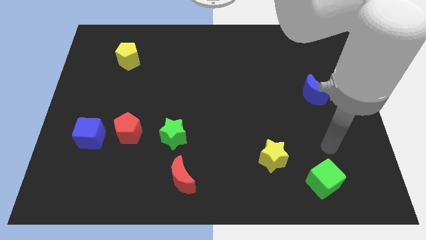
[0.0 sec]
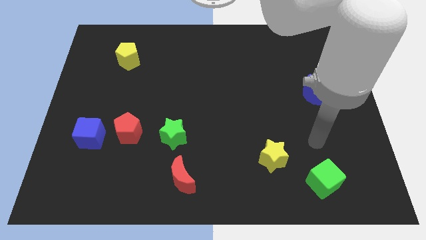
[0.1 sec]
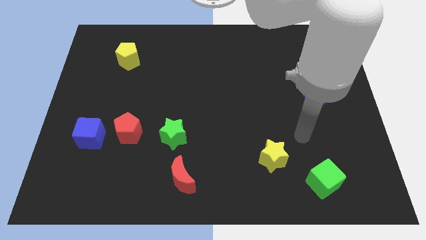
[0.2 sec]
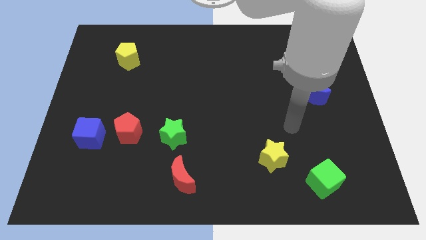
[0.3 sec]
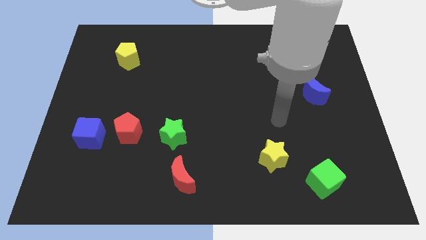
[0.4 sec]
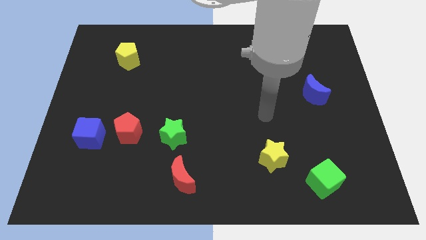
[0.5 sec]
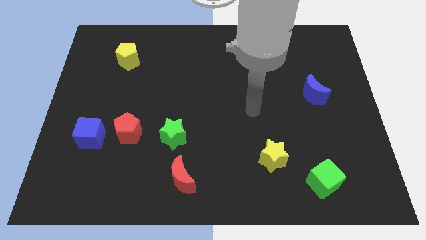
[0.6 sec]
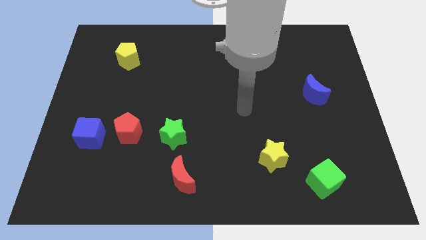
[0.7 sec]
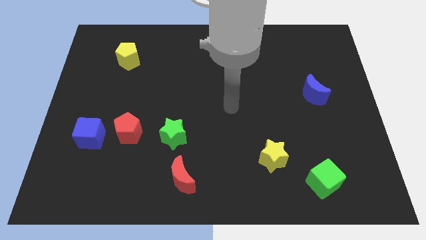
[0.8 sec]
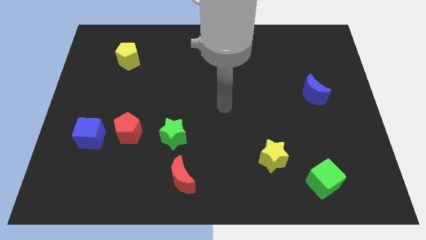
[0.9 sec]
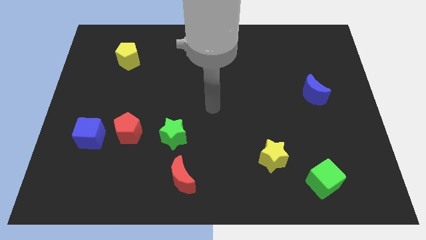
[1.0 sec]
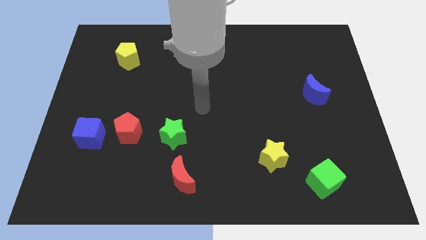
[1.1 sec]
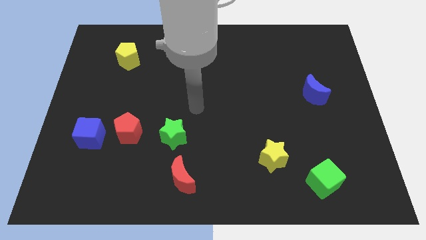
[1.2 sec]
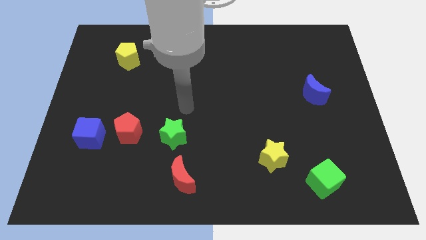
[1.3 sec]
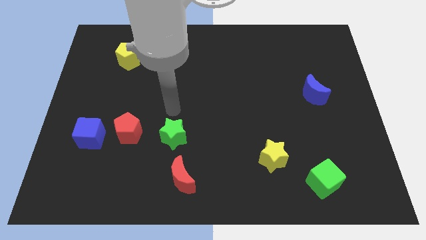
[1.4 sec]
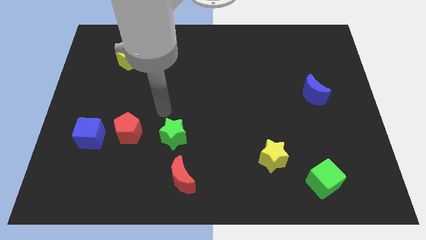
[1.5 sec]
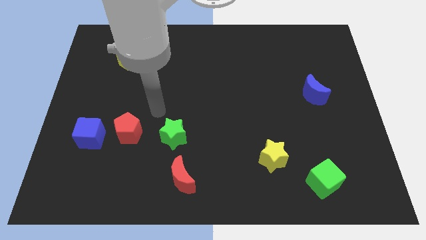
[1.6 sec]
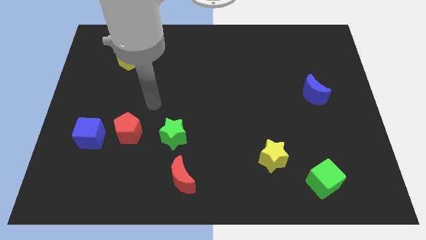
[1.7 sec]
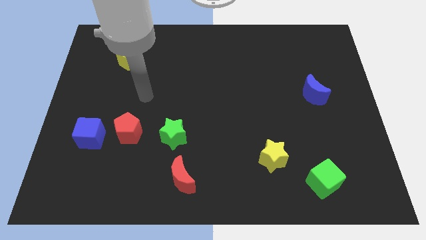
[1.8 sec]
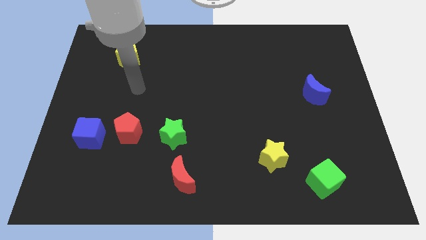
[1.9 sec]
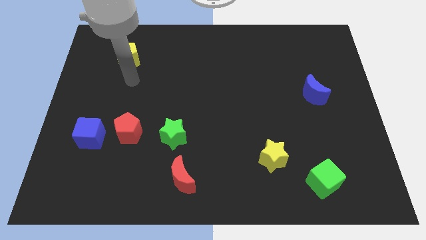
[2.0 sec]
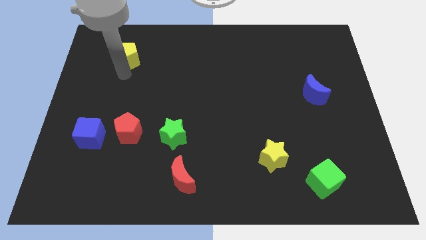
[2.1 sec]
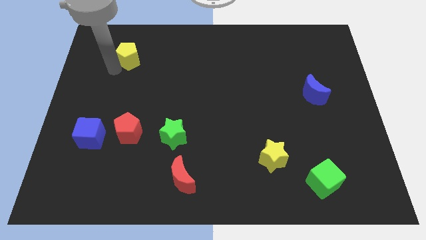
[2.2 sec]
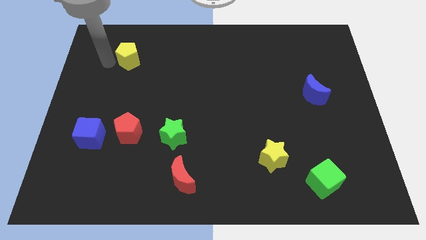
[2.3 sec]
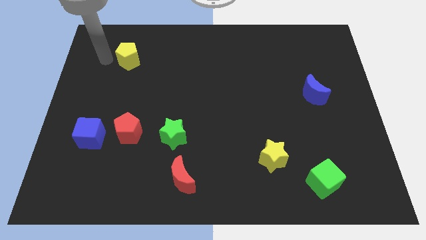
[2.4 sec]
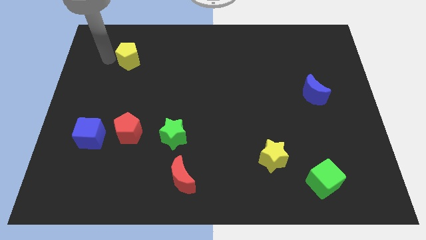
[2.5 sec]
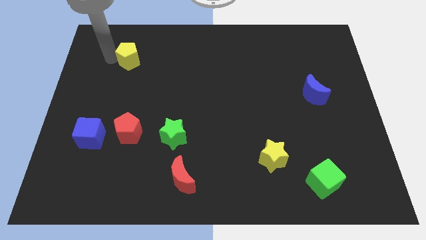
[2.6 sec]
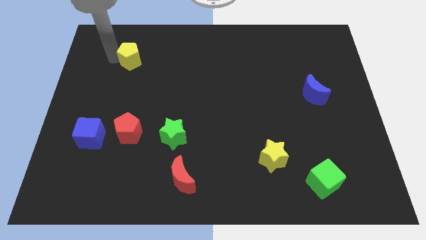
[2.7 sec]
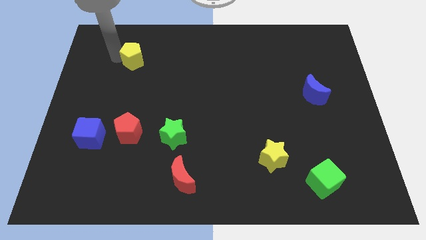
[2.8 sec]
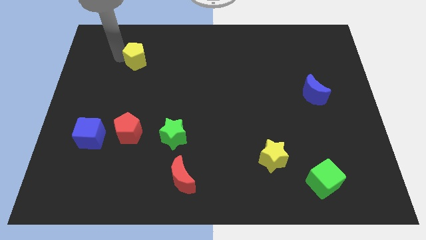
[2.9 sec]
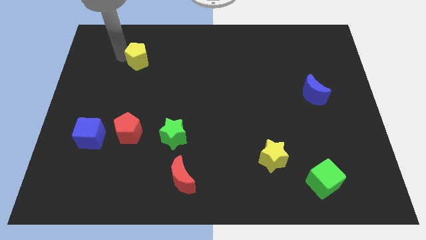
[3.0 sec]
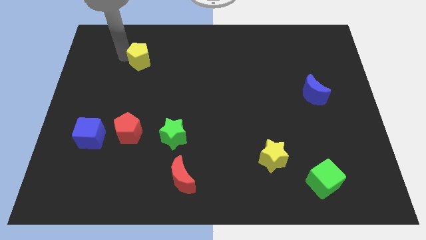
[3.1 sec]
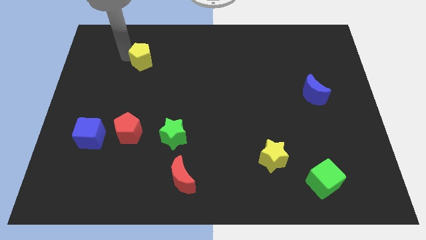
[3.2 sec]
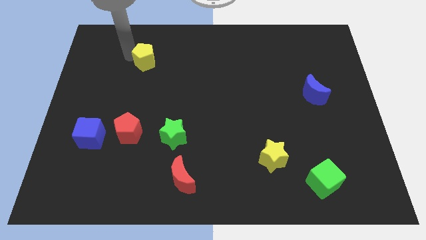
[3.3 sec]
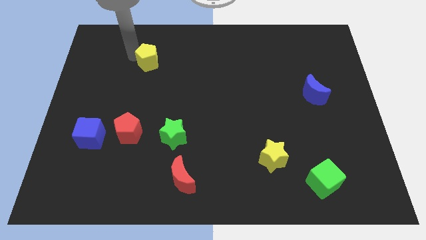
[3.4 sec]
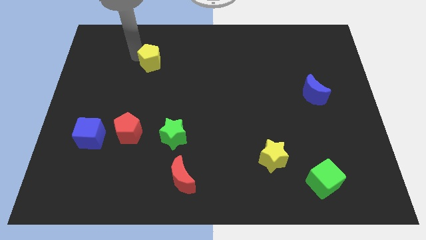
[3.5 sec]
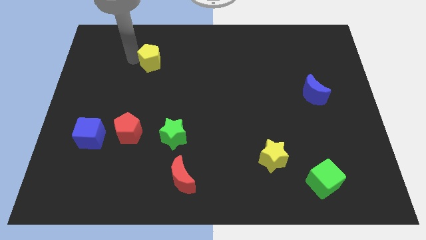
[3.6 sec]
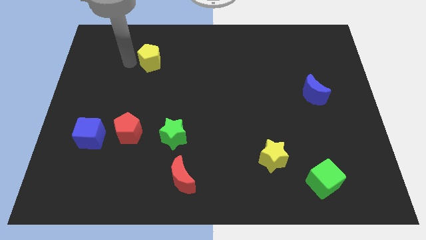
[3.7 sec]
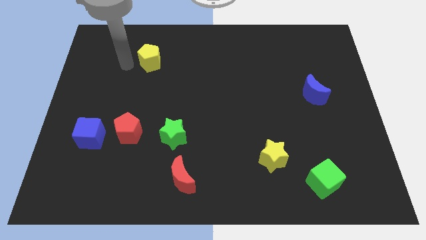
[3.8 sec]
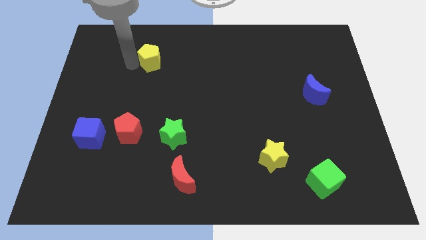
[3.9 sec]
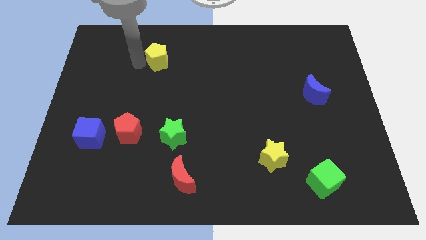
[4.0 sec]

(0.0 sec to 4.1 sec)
slightly push the yellow pentagon to the right

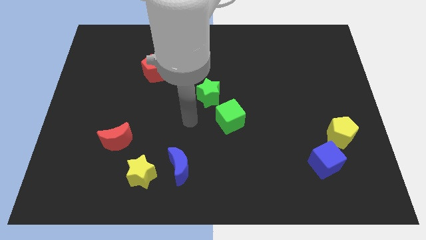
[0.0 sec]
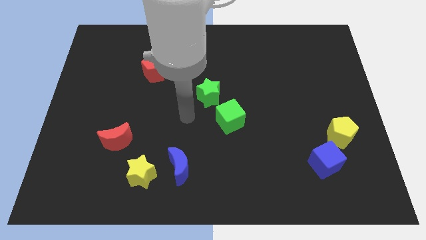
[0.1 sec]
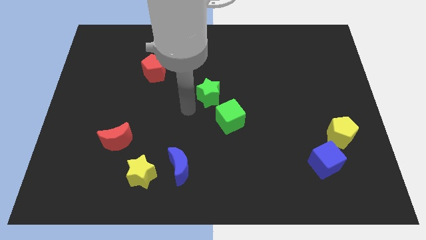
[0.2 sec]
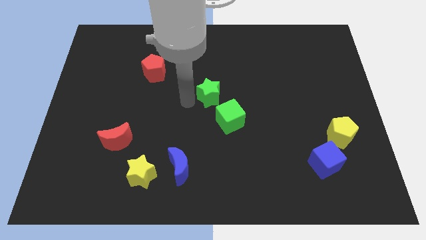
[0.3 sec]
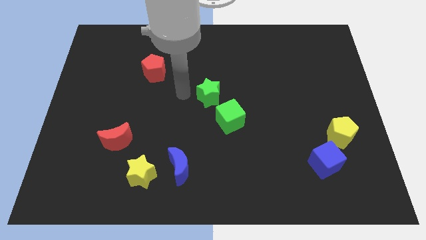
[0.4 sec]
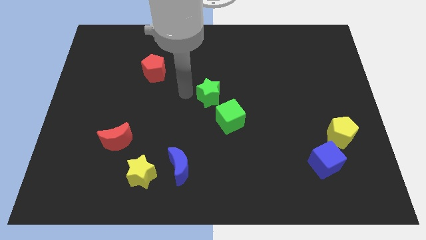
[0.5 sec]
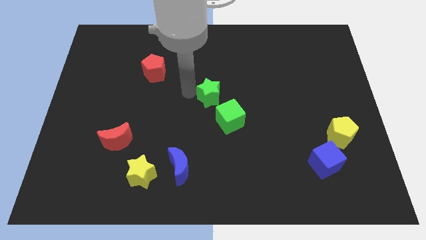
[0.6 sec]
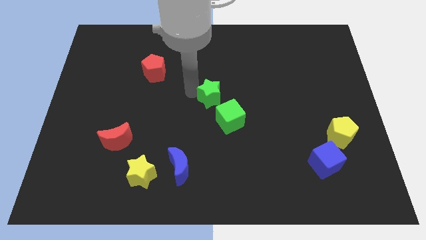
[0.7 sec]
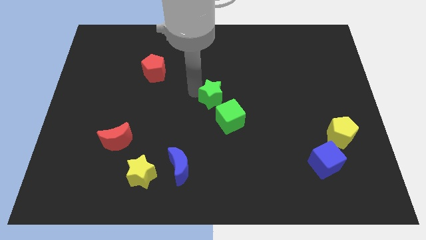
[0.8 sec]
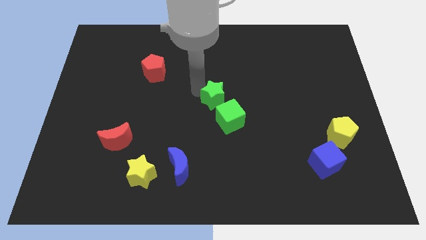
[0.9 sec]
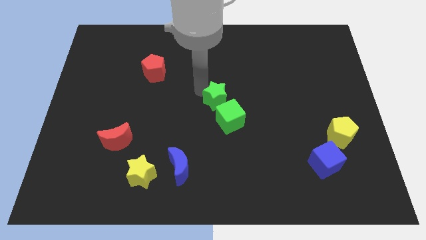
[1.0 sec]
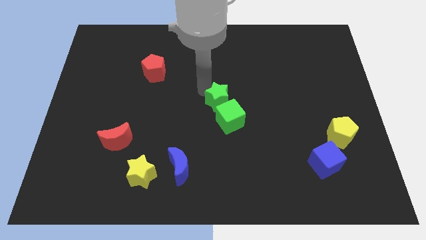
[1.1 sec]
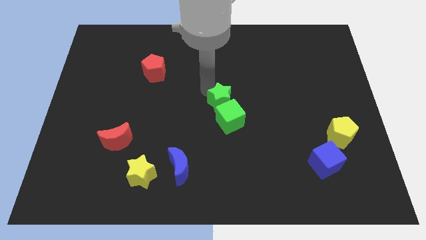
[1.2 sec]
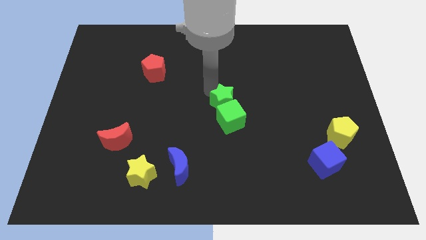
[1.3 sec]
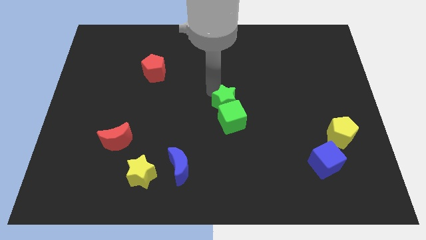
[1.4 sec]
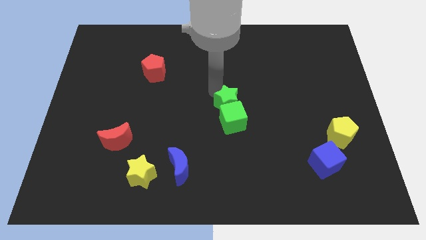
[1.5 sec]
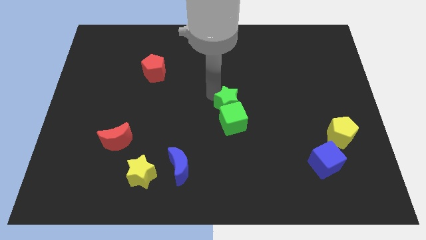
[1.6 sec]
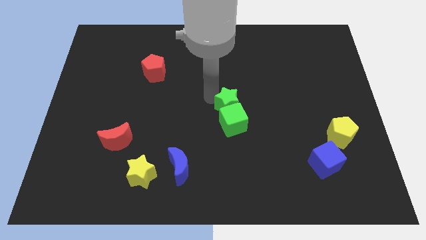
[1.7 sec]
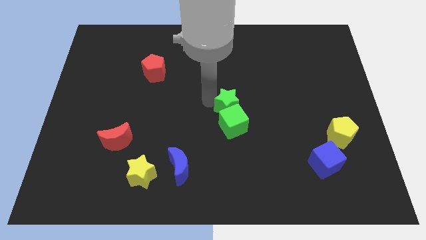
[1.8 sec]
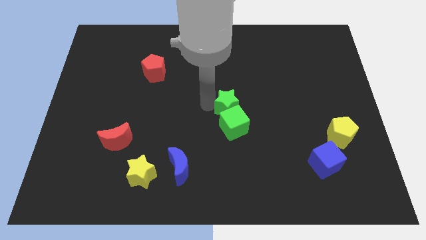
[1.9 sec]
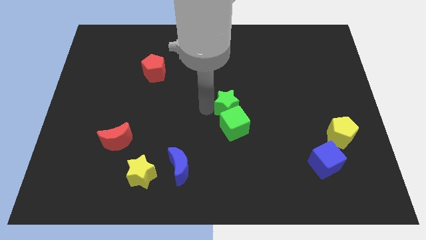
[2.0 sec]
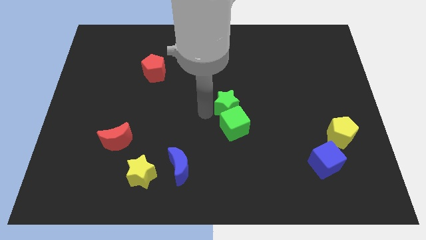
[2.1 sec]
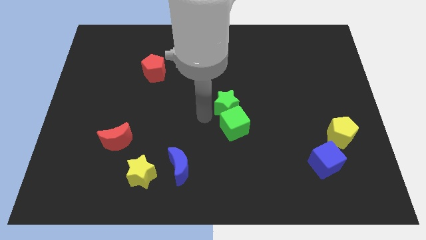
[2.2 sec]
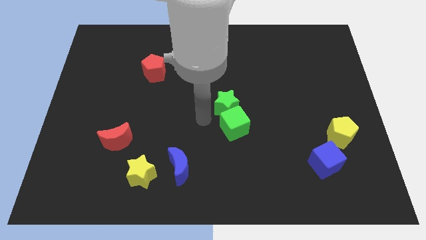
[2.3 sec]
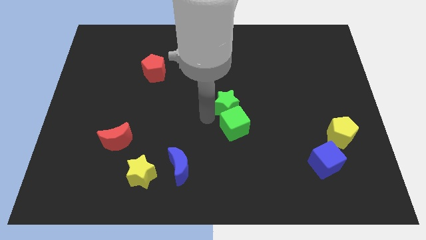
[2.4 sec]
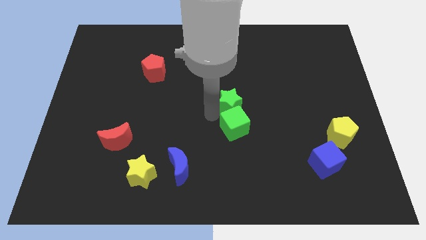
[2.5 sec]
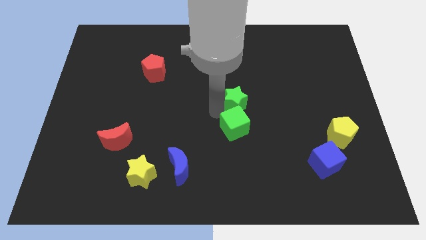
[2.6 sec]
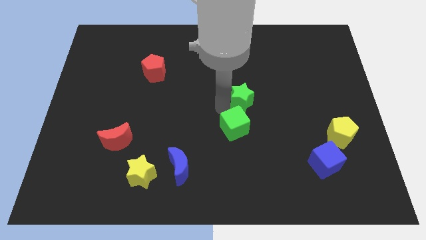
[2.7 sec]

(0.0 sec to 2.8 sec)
slide the green star a little bit right

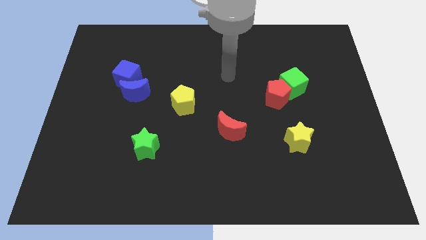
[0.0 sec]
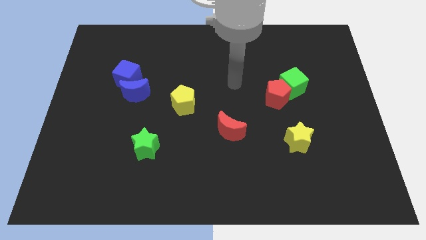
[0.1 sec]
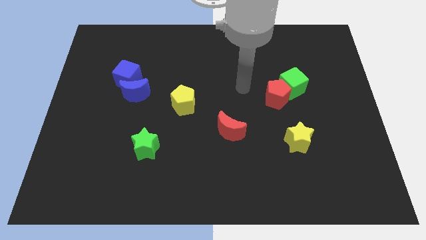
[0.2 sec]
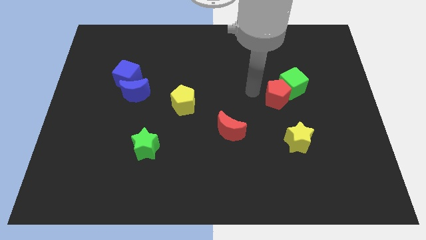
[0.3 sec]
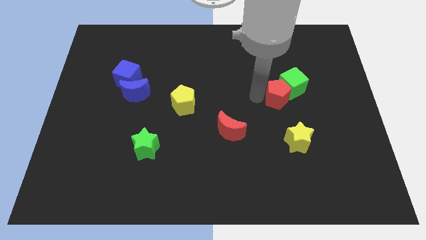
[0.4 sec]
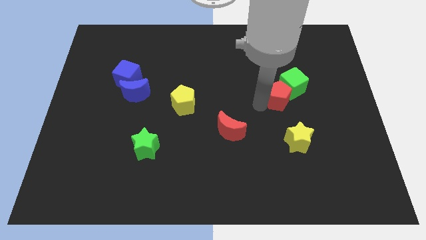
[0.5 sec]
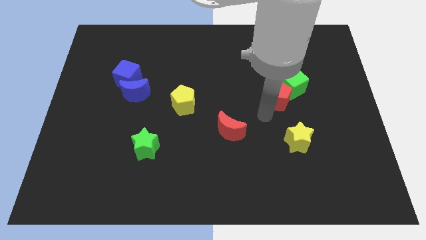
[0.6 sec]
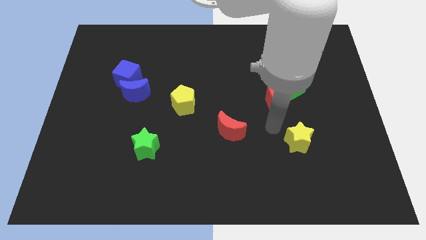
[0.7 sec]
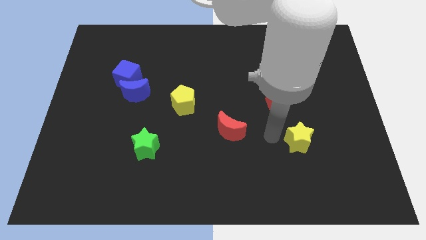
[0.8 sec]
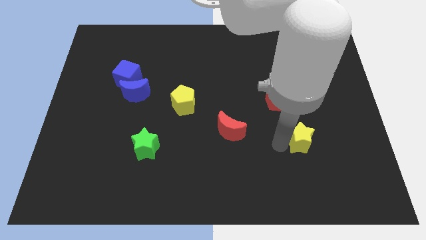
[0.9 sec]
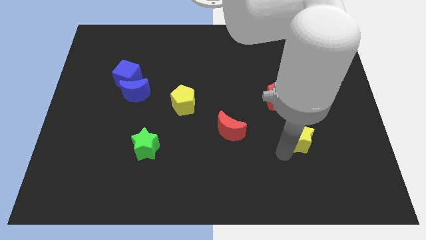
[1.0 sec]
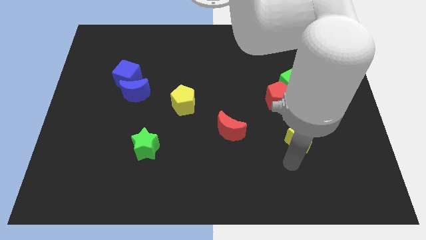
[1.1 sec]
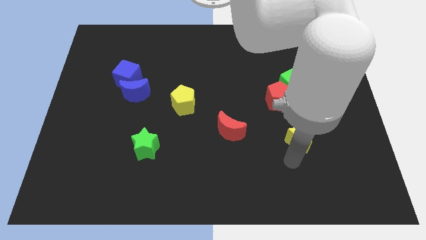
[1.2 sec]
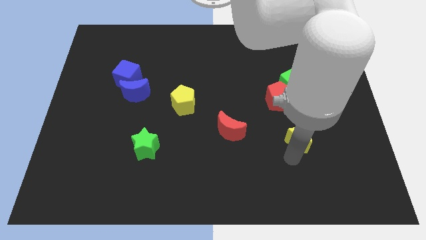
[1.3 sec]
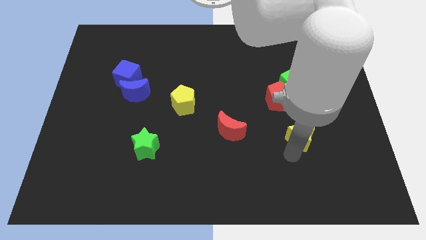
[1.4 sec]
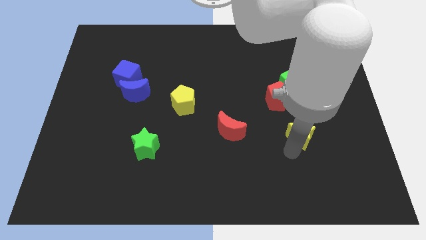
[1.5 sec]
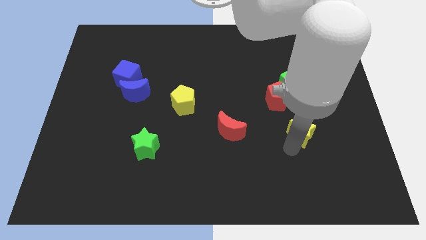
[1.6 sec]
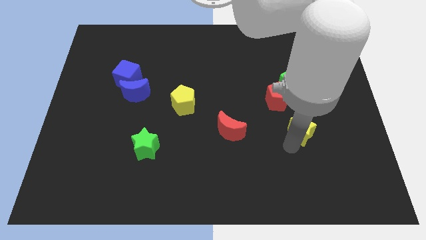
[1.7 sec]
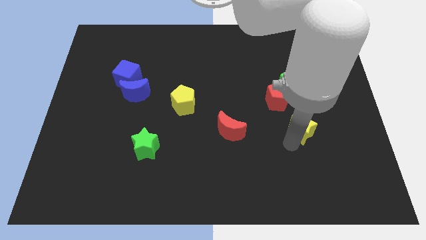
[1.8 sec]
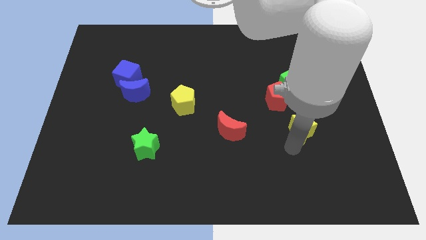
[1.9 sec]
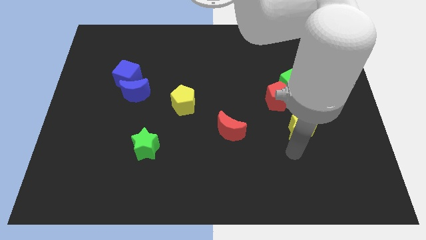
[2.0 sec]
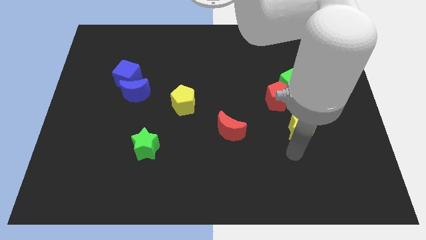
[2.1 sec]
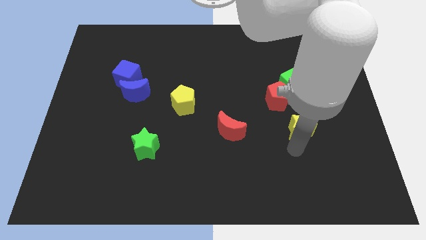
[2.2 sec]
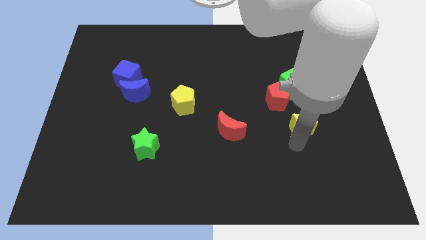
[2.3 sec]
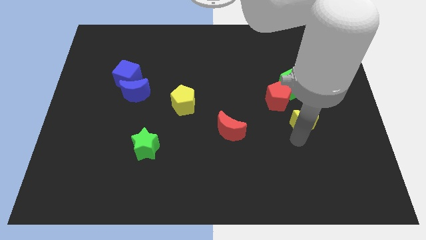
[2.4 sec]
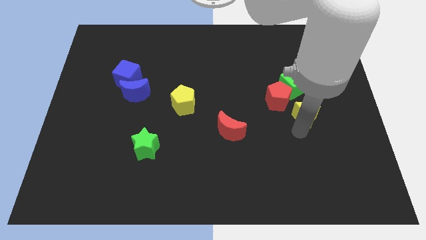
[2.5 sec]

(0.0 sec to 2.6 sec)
move the yellow star up somewhat
